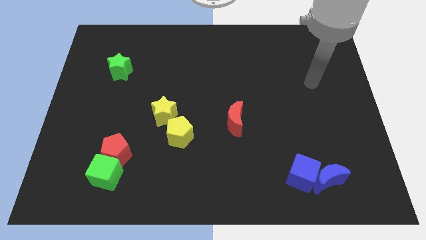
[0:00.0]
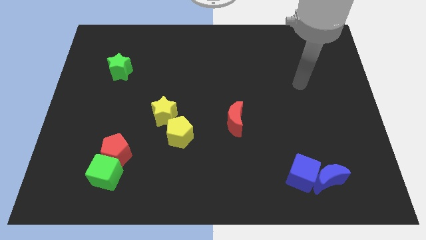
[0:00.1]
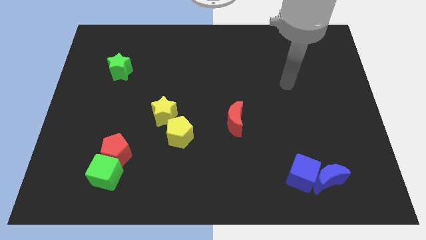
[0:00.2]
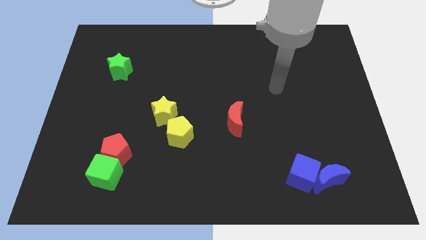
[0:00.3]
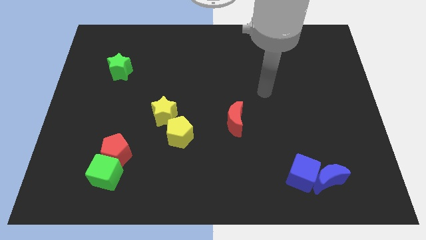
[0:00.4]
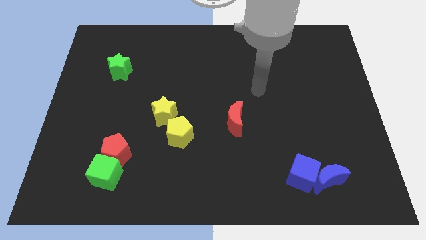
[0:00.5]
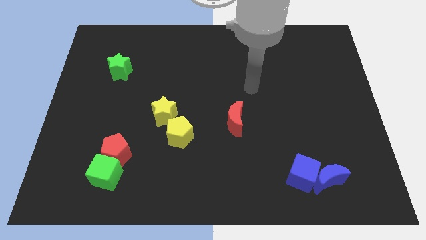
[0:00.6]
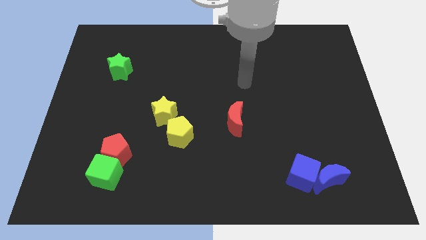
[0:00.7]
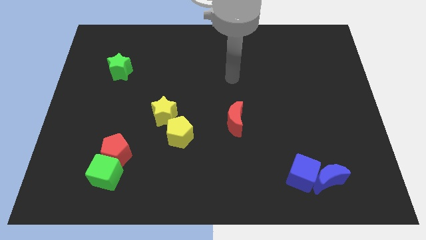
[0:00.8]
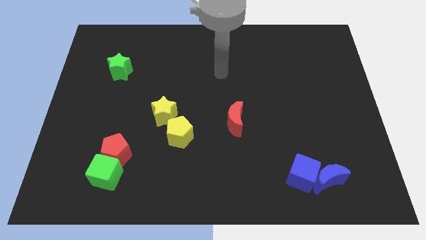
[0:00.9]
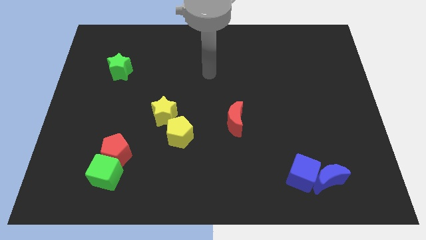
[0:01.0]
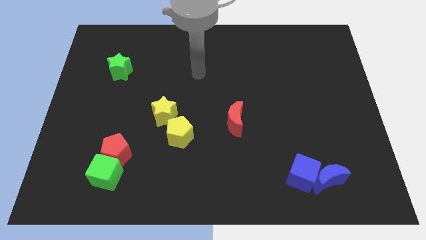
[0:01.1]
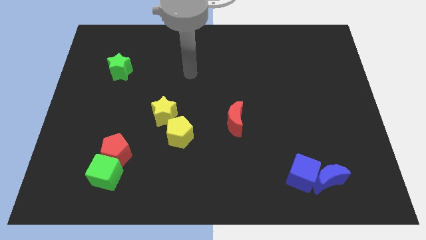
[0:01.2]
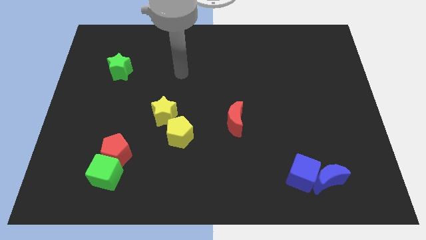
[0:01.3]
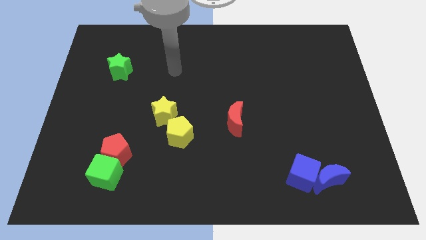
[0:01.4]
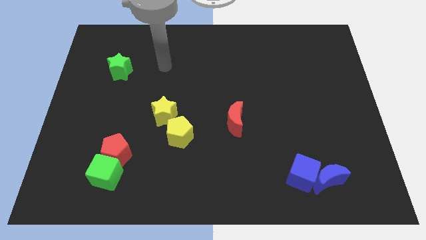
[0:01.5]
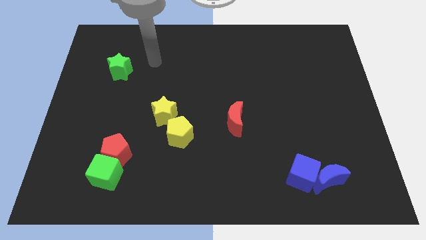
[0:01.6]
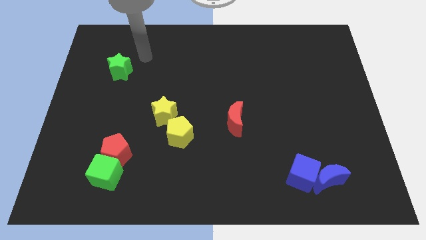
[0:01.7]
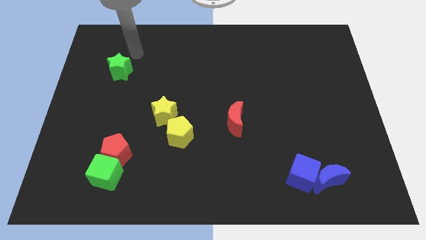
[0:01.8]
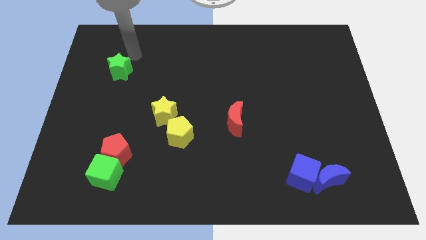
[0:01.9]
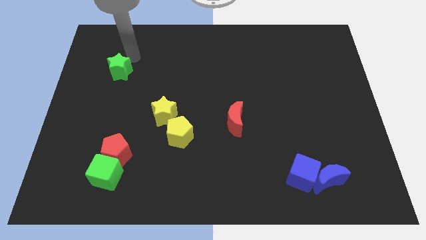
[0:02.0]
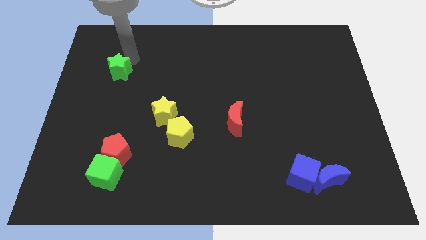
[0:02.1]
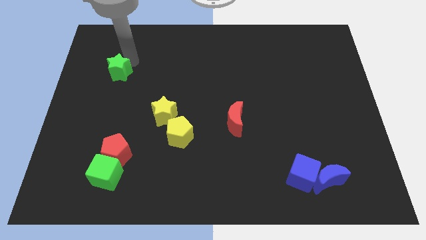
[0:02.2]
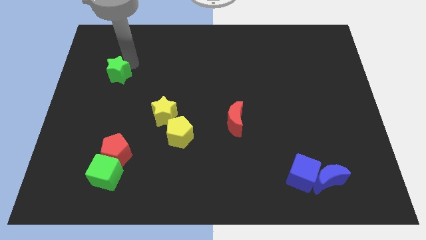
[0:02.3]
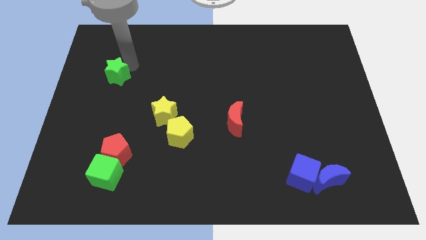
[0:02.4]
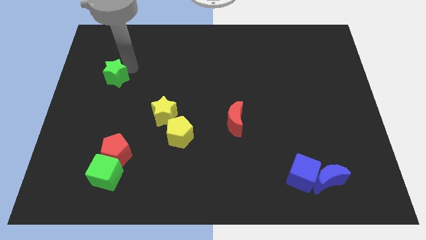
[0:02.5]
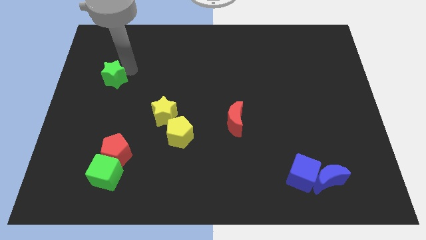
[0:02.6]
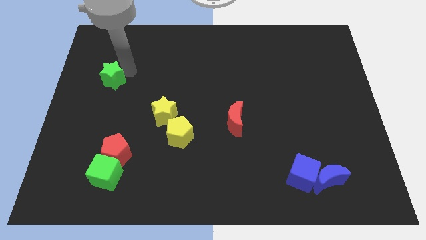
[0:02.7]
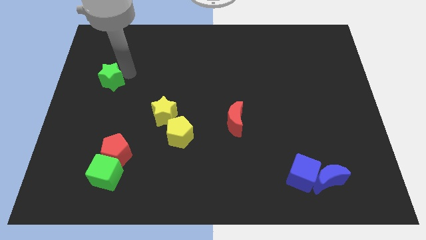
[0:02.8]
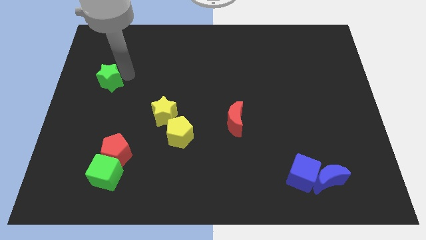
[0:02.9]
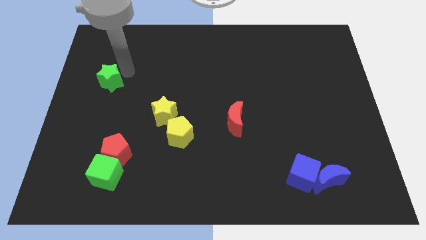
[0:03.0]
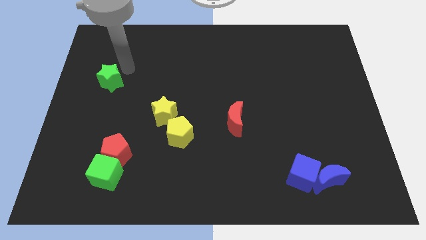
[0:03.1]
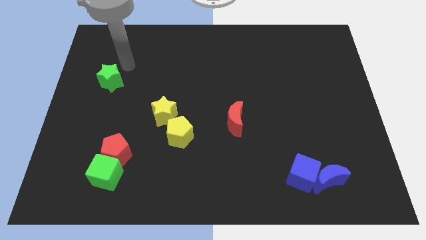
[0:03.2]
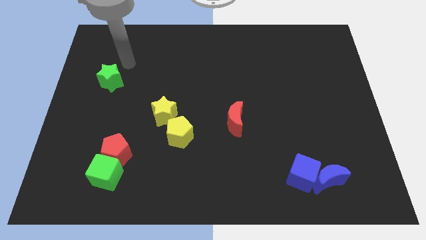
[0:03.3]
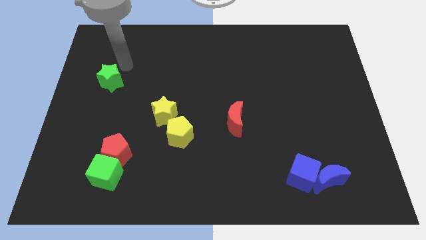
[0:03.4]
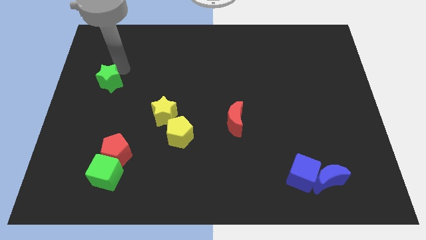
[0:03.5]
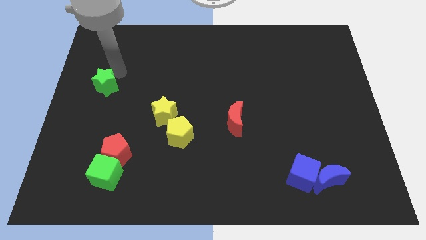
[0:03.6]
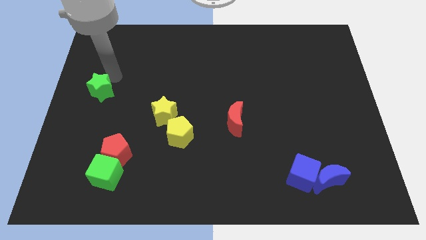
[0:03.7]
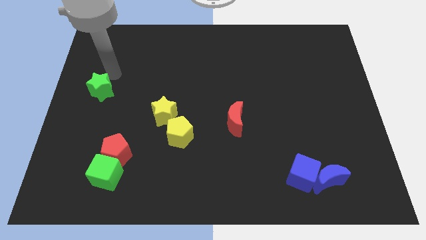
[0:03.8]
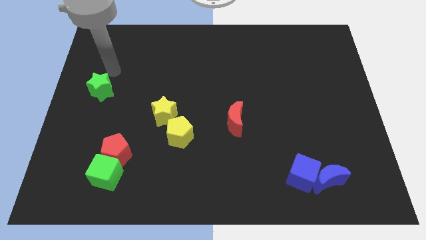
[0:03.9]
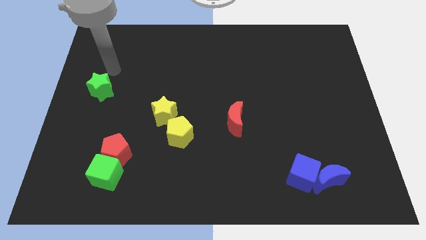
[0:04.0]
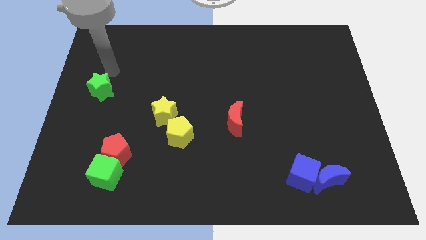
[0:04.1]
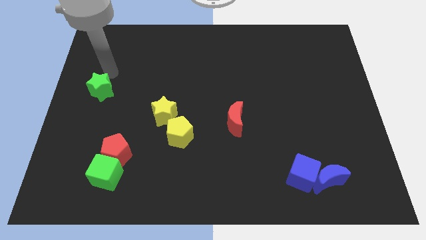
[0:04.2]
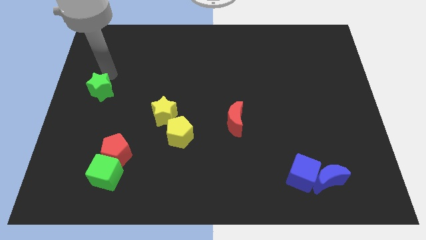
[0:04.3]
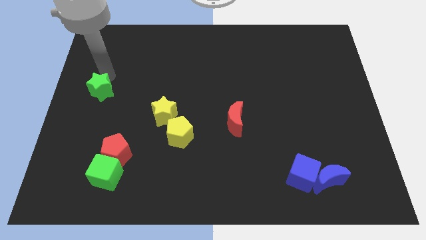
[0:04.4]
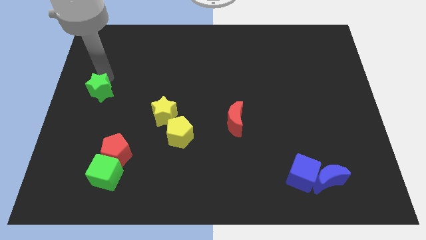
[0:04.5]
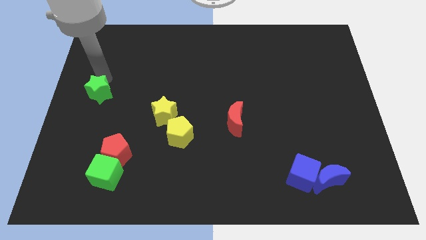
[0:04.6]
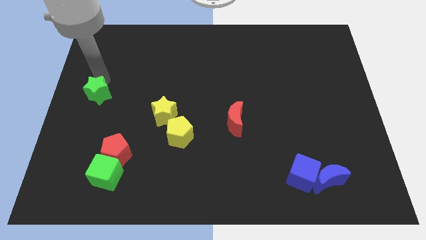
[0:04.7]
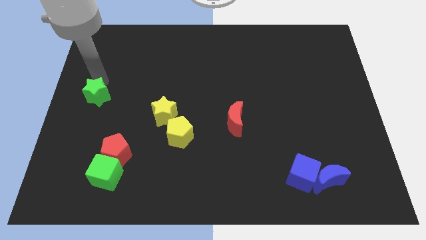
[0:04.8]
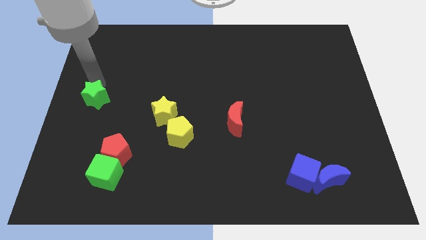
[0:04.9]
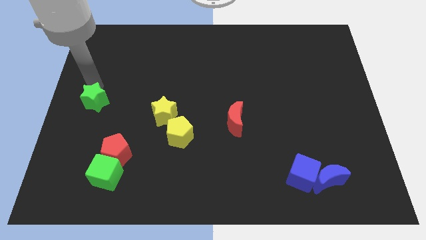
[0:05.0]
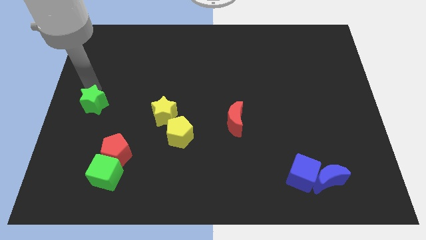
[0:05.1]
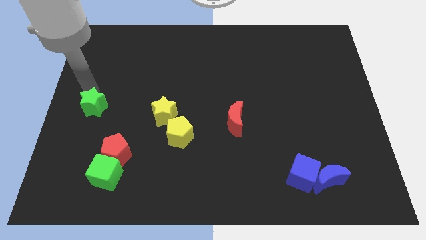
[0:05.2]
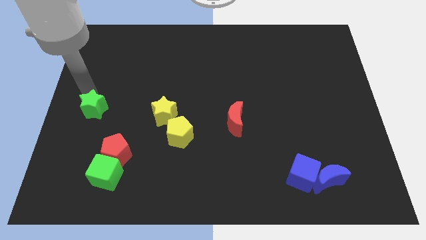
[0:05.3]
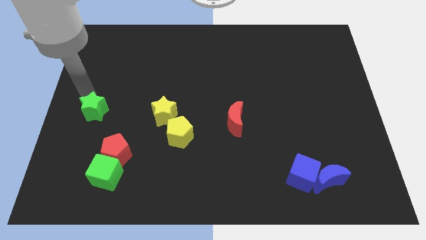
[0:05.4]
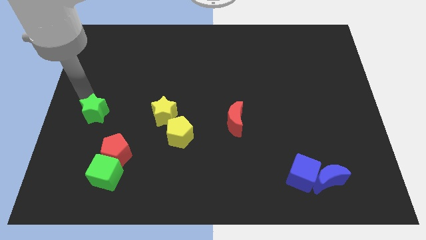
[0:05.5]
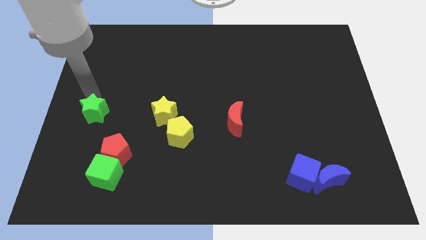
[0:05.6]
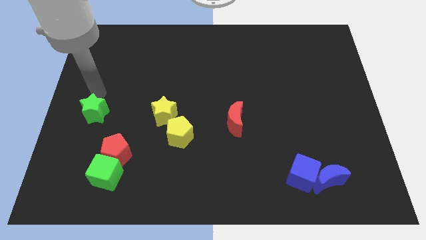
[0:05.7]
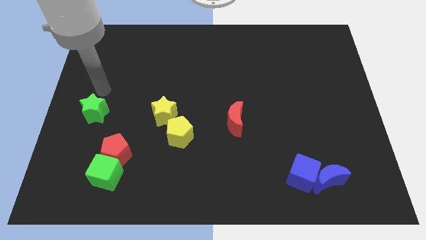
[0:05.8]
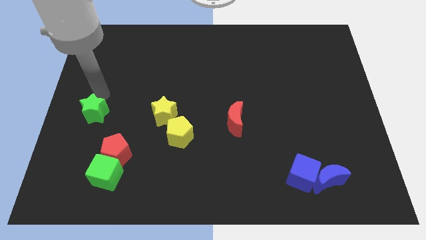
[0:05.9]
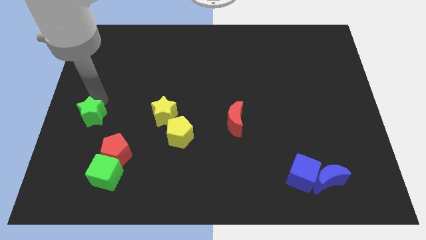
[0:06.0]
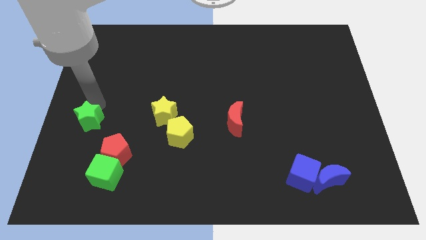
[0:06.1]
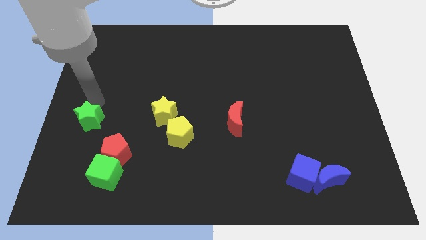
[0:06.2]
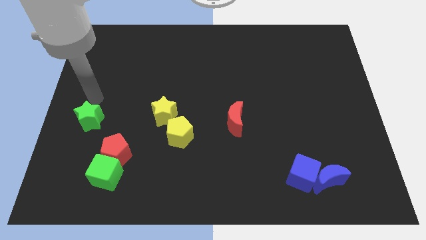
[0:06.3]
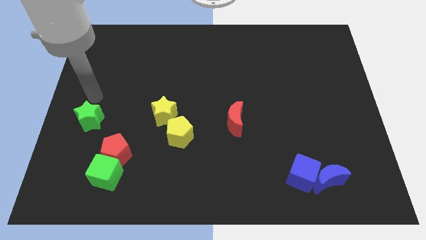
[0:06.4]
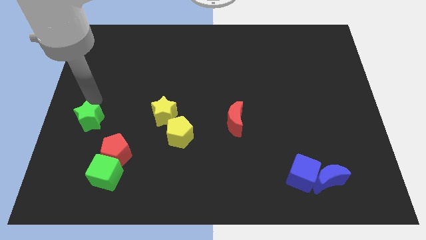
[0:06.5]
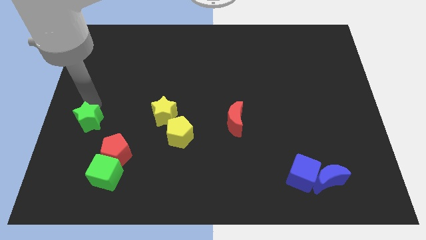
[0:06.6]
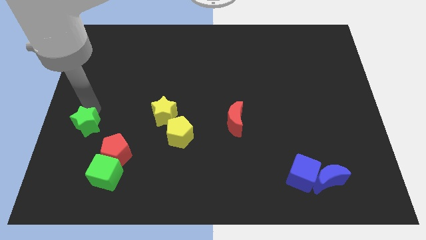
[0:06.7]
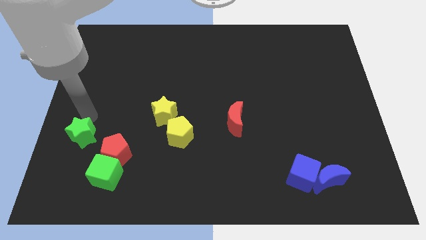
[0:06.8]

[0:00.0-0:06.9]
put the green star to the top left side of the green cube

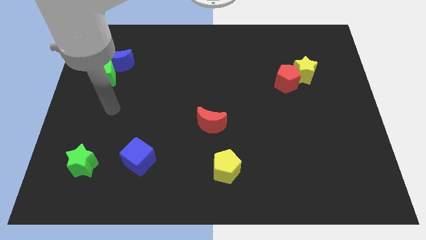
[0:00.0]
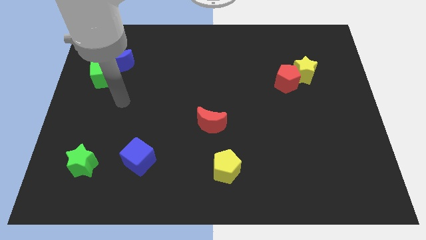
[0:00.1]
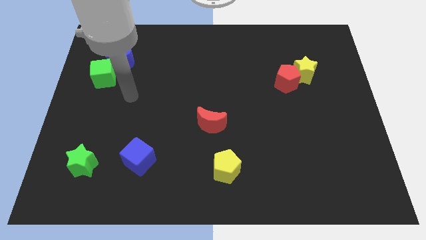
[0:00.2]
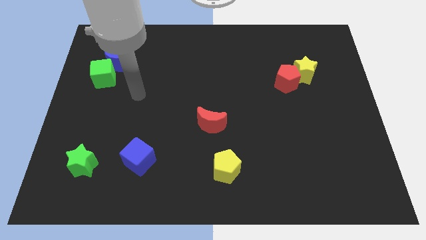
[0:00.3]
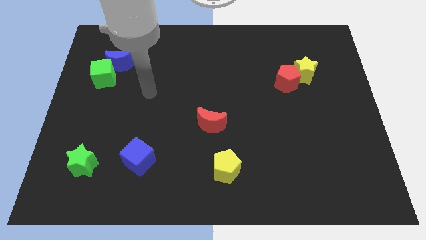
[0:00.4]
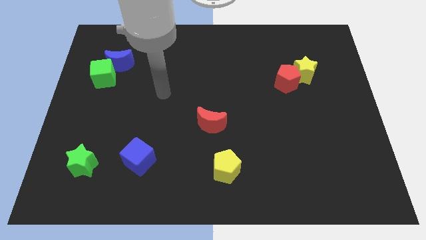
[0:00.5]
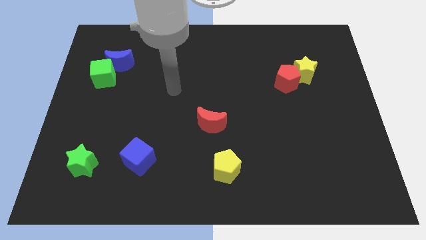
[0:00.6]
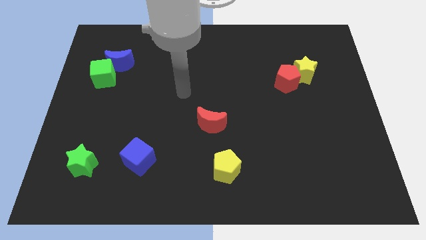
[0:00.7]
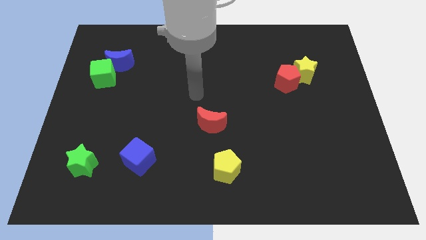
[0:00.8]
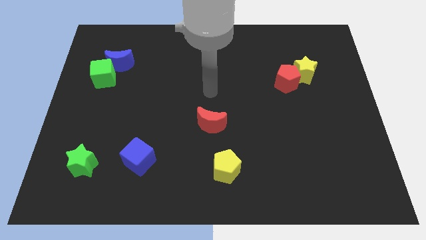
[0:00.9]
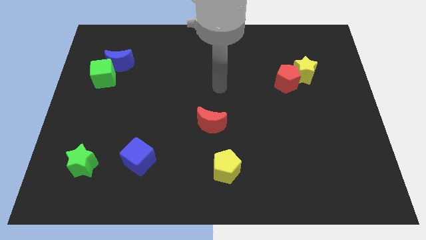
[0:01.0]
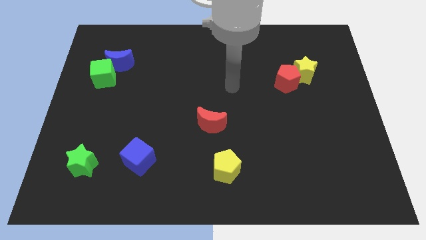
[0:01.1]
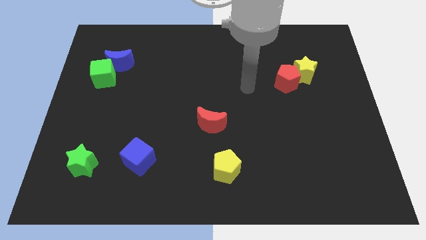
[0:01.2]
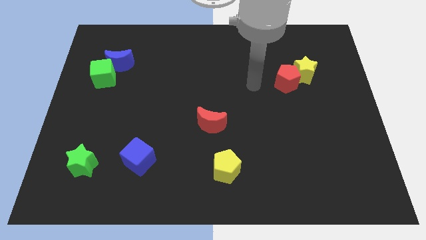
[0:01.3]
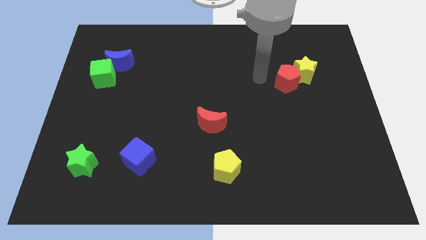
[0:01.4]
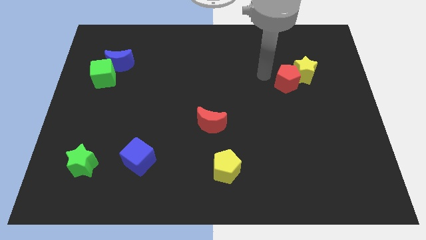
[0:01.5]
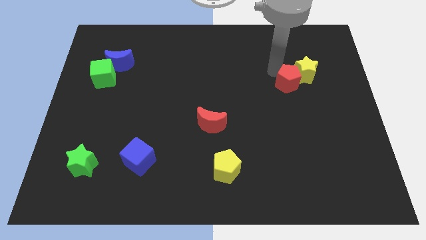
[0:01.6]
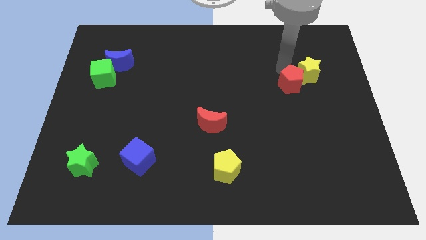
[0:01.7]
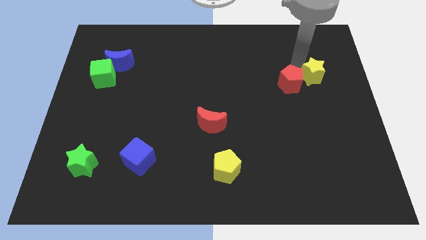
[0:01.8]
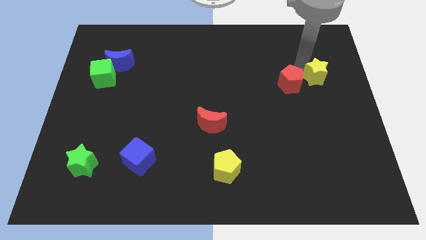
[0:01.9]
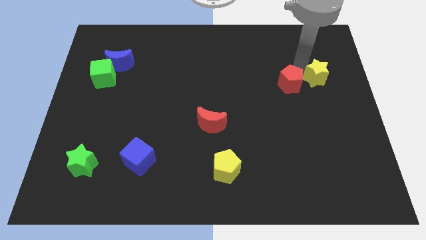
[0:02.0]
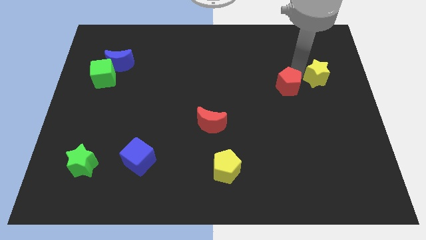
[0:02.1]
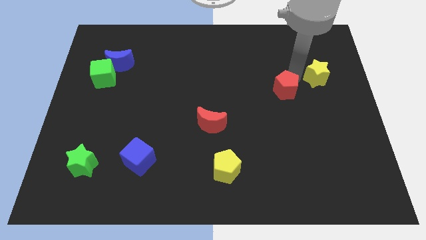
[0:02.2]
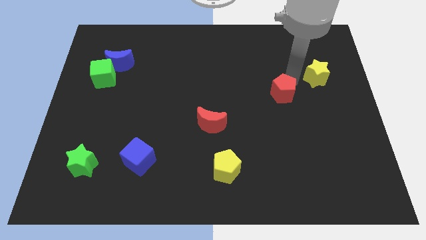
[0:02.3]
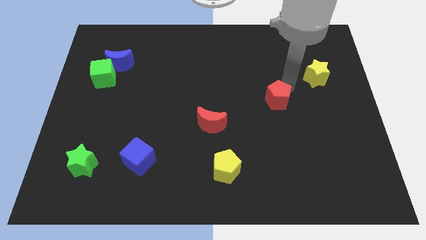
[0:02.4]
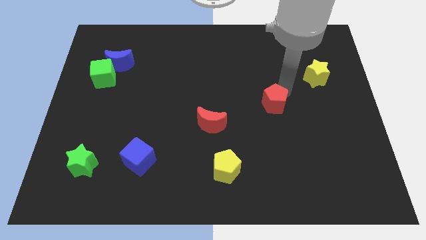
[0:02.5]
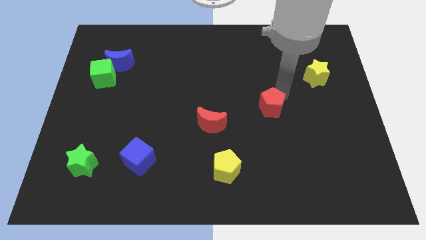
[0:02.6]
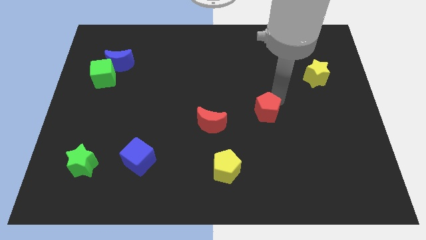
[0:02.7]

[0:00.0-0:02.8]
move the red pentagon just right of the red moon
